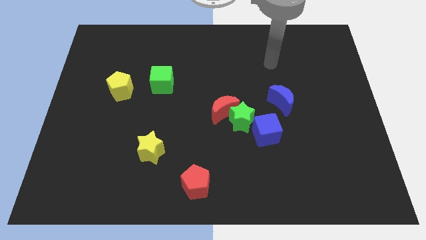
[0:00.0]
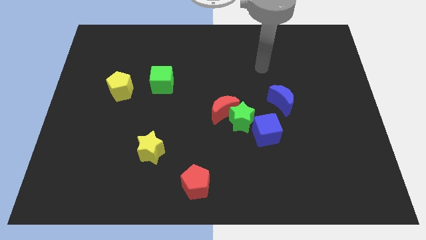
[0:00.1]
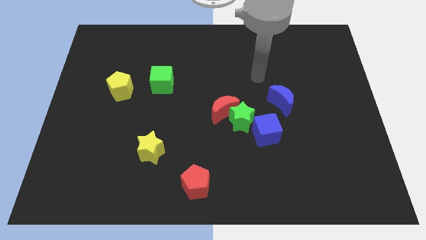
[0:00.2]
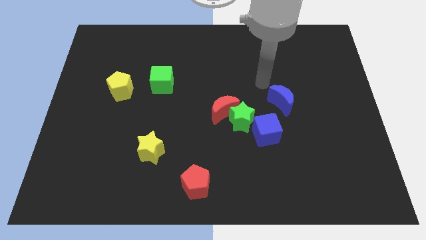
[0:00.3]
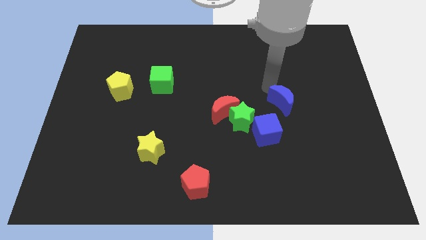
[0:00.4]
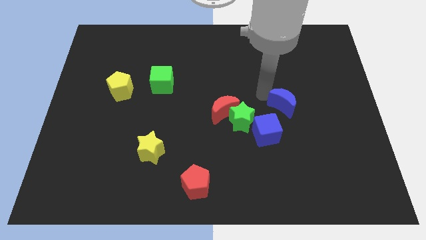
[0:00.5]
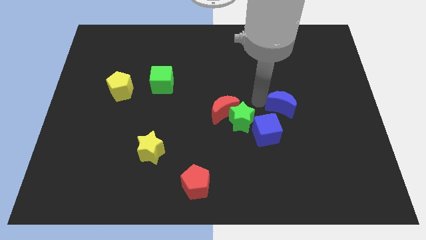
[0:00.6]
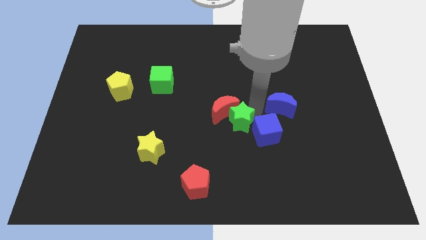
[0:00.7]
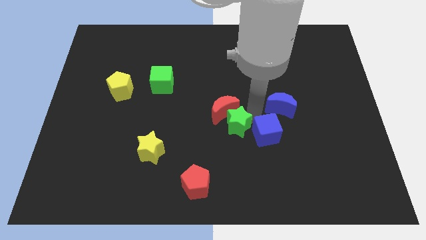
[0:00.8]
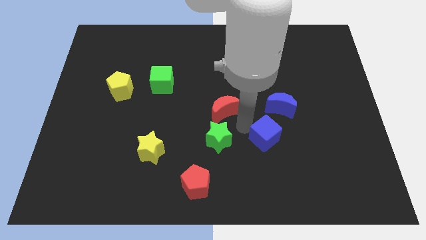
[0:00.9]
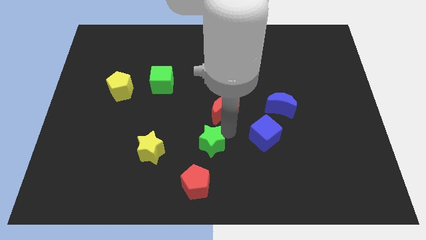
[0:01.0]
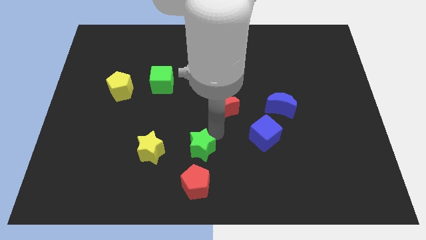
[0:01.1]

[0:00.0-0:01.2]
pull the red moon apart from the green star

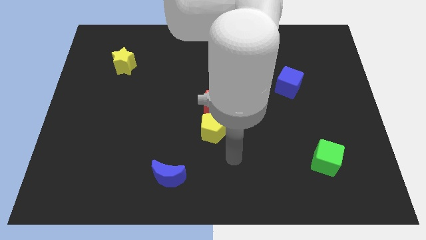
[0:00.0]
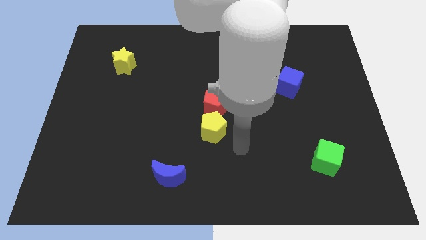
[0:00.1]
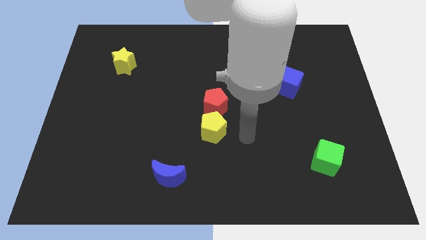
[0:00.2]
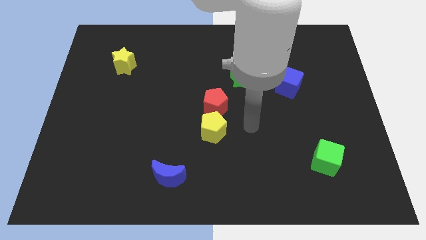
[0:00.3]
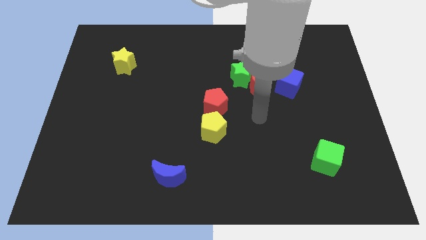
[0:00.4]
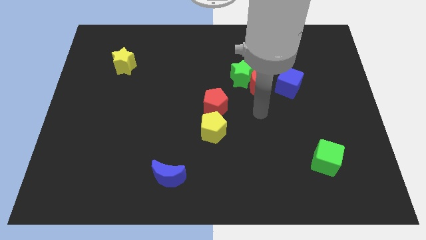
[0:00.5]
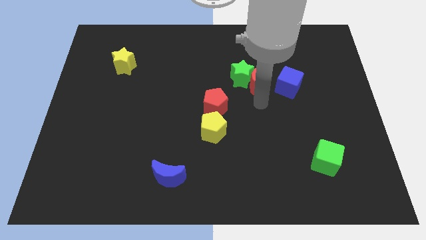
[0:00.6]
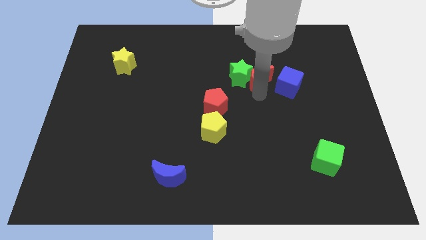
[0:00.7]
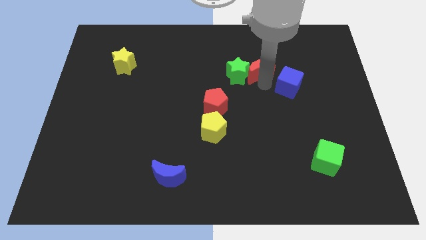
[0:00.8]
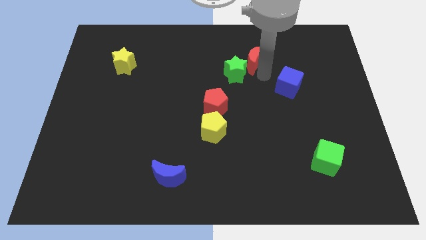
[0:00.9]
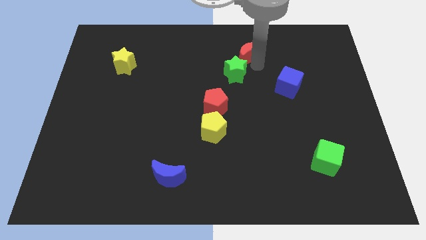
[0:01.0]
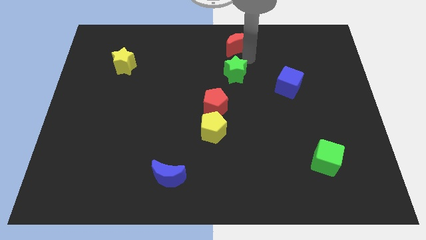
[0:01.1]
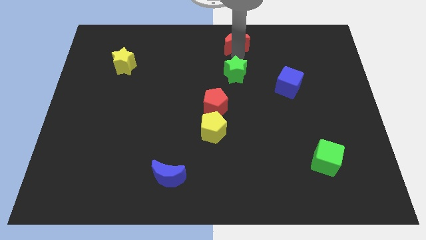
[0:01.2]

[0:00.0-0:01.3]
pull the green star apart from the red moon

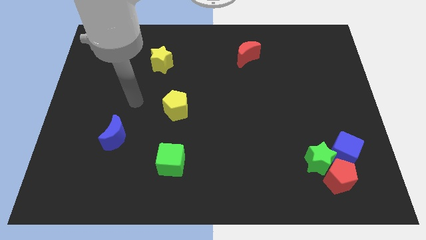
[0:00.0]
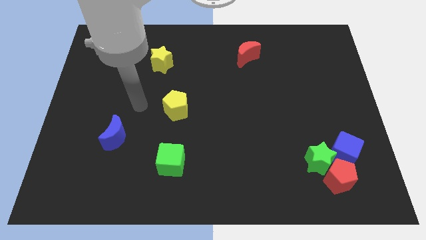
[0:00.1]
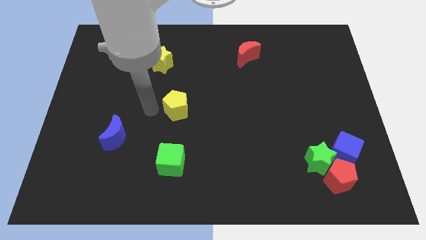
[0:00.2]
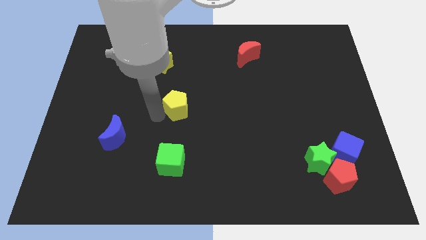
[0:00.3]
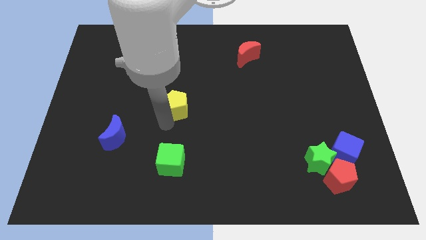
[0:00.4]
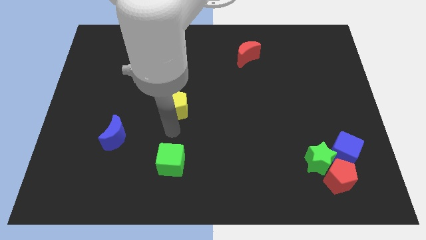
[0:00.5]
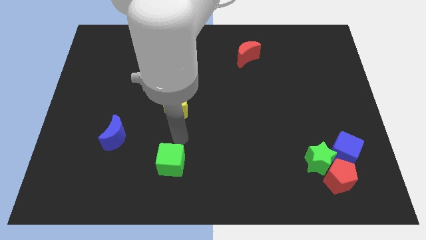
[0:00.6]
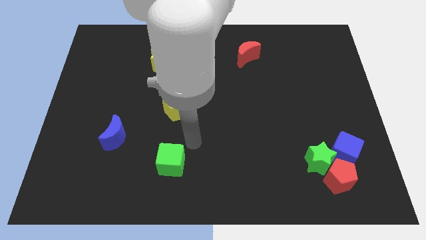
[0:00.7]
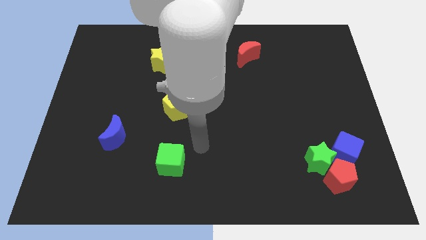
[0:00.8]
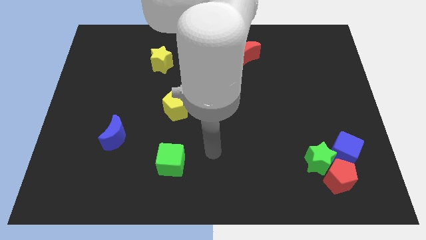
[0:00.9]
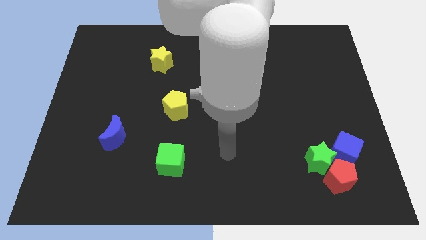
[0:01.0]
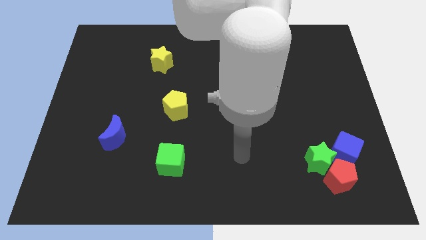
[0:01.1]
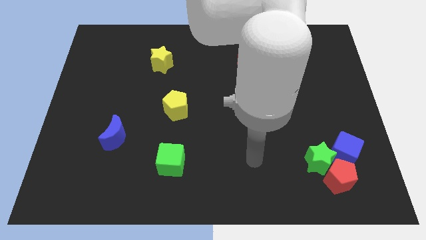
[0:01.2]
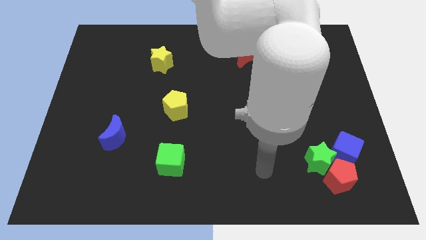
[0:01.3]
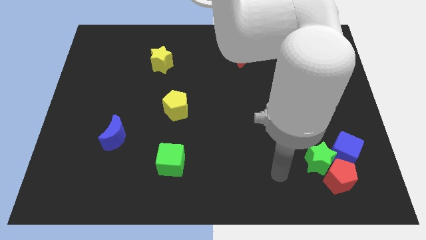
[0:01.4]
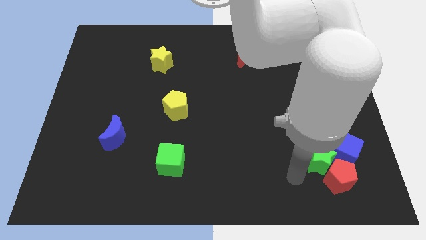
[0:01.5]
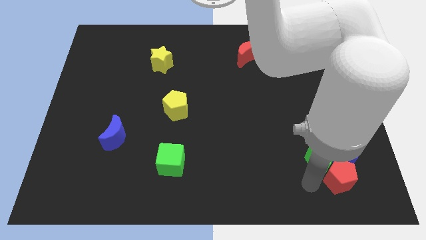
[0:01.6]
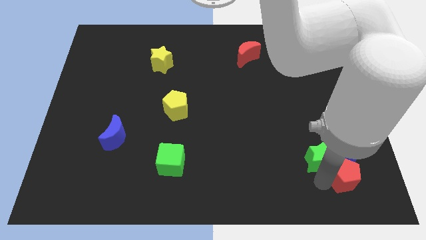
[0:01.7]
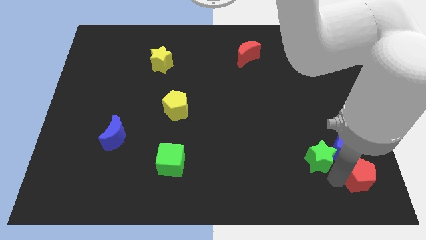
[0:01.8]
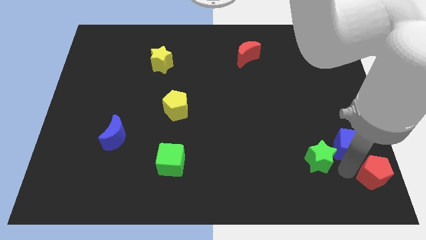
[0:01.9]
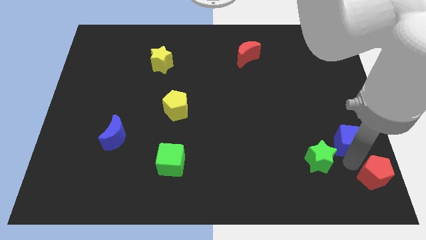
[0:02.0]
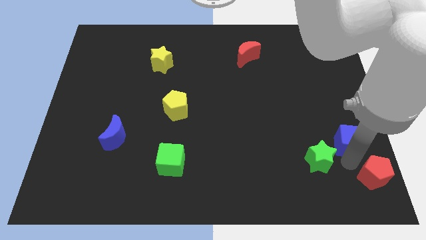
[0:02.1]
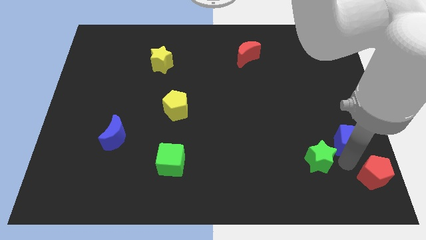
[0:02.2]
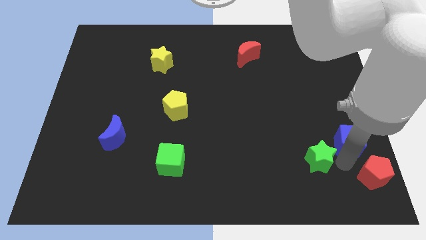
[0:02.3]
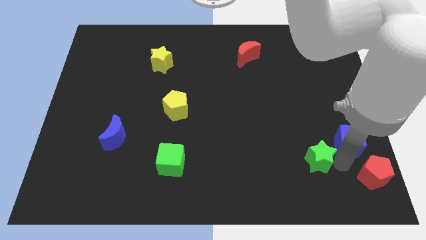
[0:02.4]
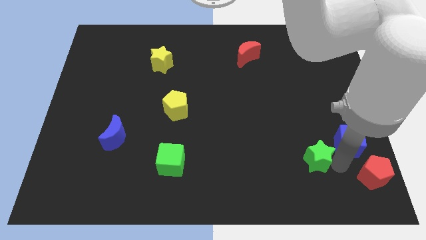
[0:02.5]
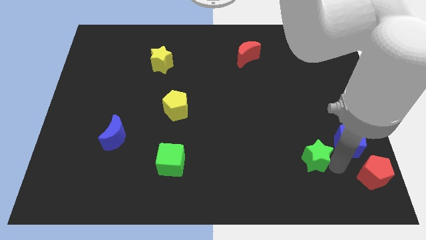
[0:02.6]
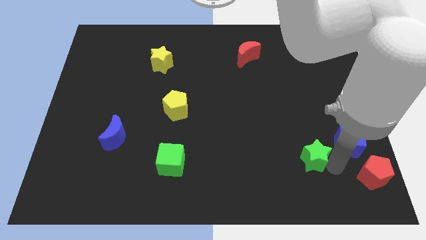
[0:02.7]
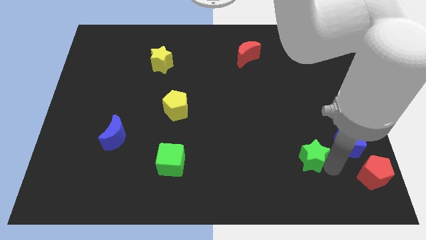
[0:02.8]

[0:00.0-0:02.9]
move the green star away from the red pentagon and blue cube

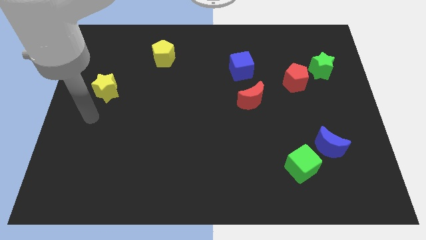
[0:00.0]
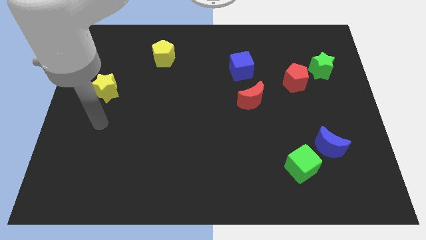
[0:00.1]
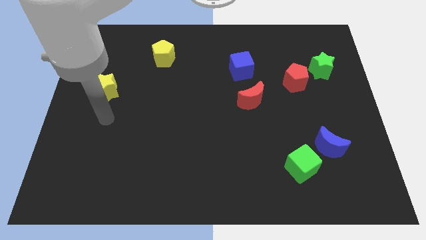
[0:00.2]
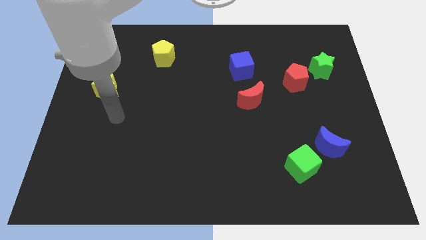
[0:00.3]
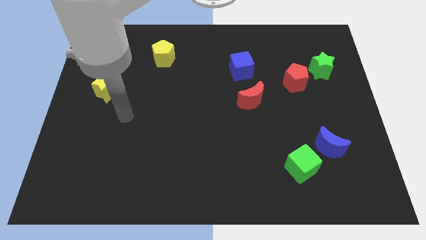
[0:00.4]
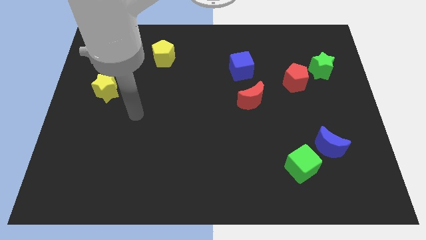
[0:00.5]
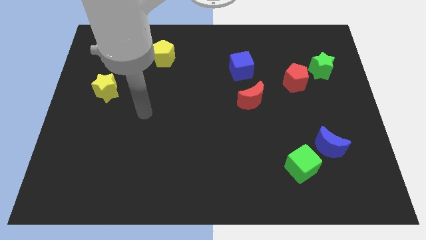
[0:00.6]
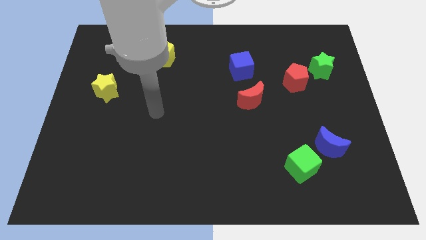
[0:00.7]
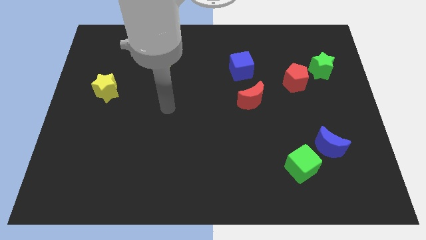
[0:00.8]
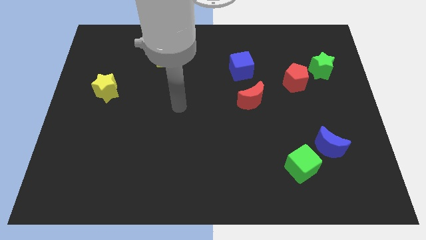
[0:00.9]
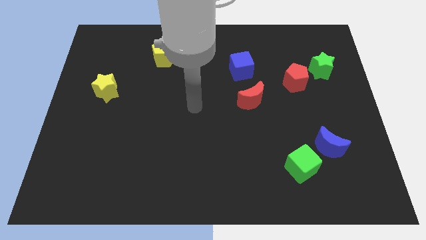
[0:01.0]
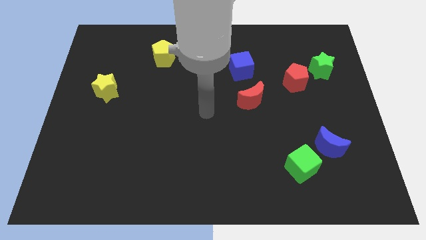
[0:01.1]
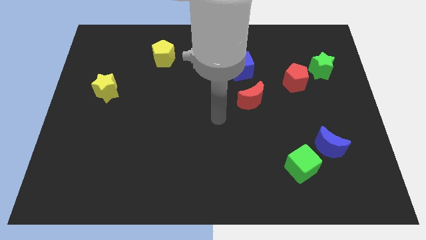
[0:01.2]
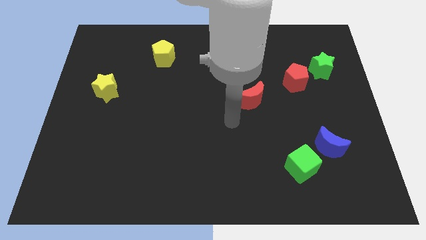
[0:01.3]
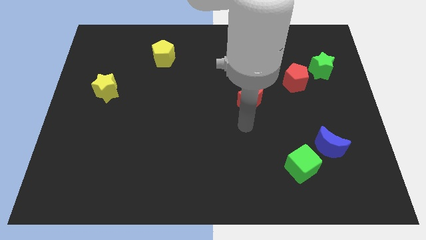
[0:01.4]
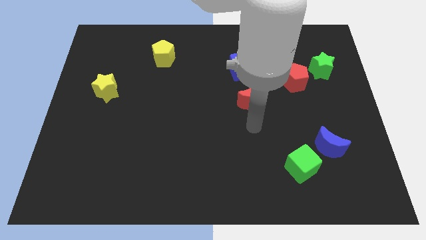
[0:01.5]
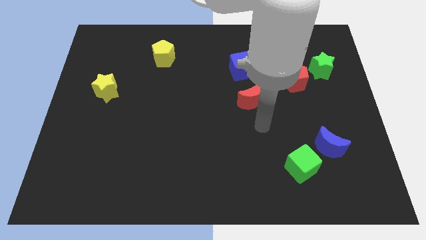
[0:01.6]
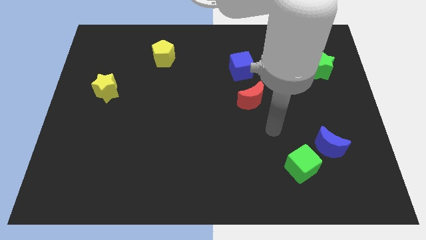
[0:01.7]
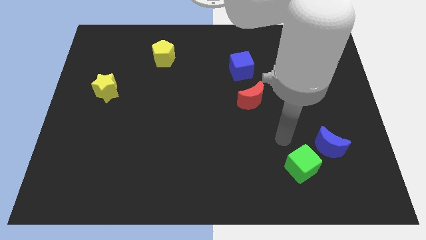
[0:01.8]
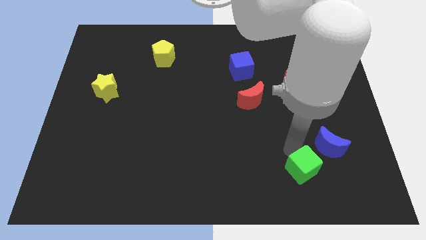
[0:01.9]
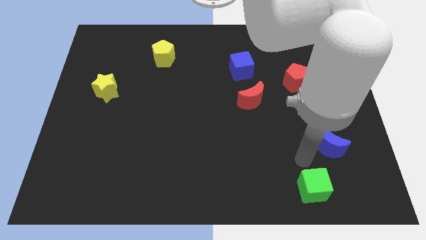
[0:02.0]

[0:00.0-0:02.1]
move the blue moon away from the green cube

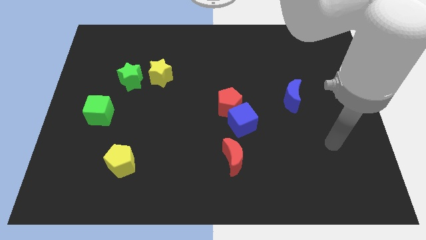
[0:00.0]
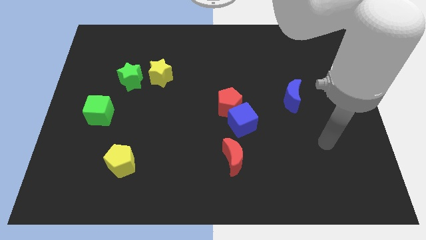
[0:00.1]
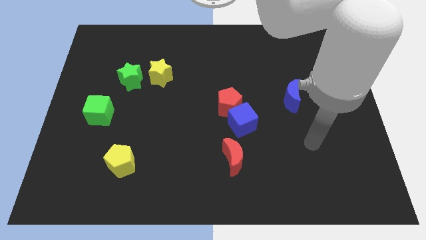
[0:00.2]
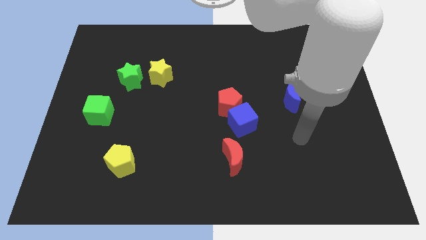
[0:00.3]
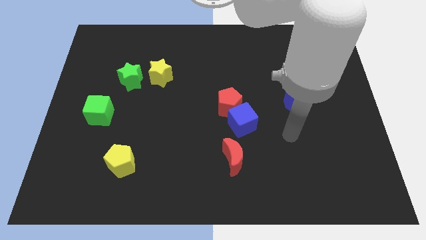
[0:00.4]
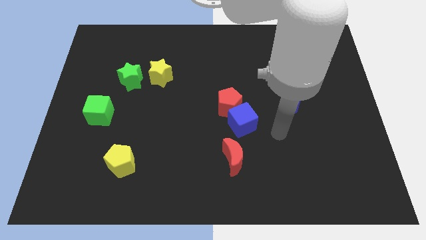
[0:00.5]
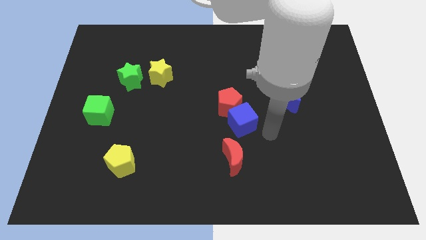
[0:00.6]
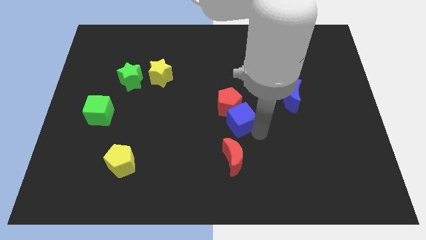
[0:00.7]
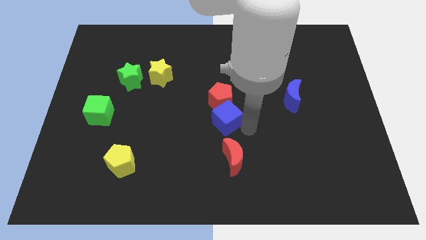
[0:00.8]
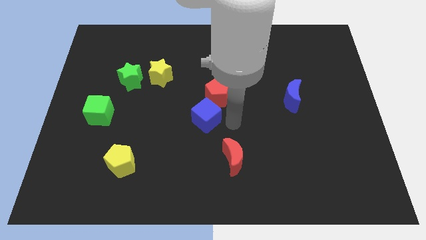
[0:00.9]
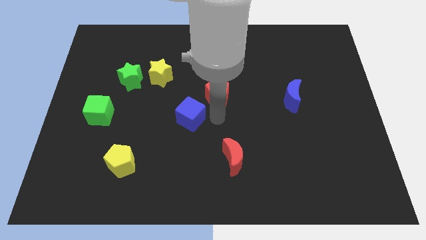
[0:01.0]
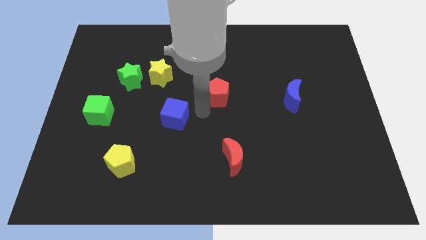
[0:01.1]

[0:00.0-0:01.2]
separate the red pentagon from the blue cube

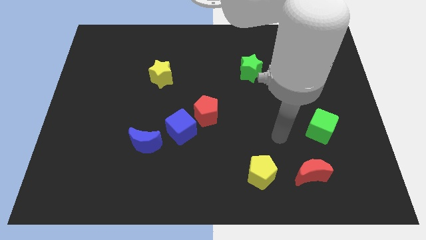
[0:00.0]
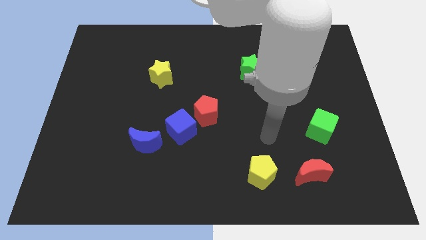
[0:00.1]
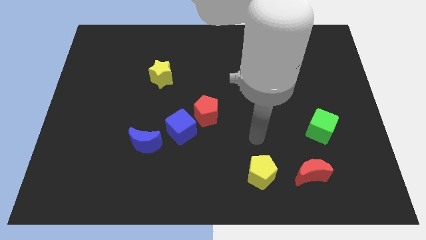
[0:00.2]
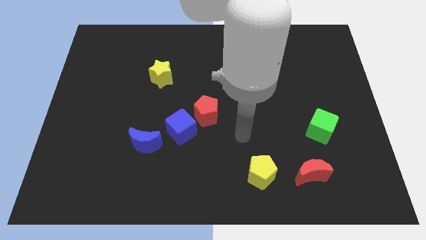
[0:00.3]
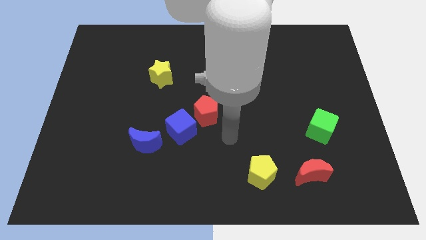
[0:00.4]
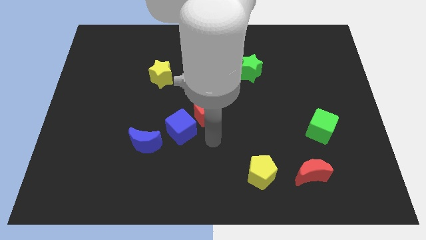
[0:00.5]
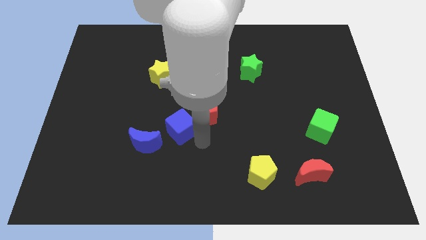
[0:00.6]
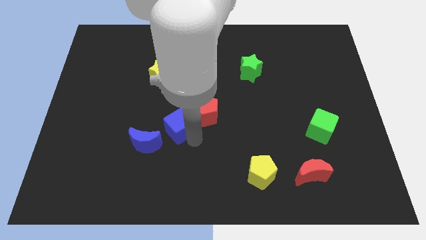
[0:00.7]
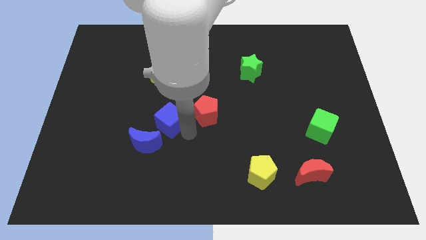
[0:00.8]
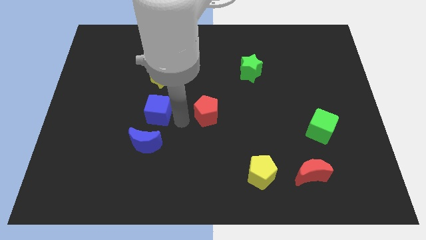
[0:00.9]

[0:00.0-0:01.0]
pull the red pentagon apart from the blue cube
